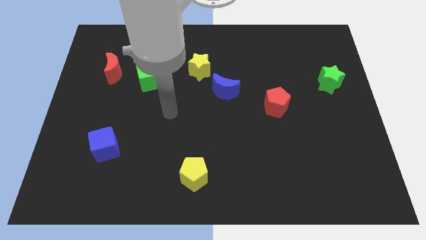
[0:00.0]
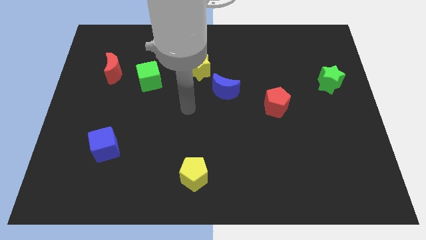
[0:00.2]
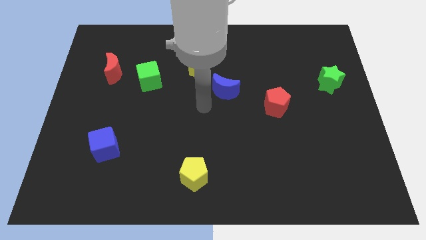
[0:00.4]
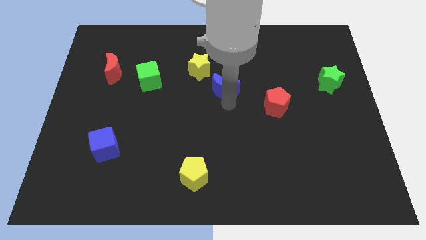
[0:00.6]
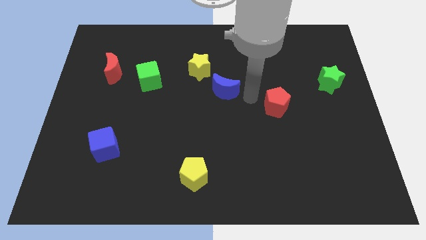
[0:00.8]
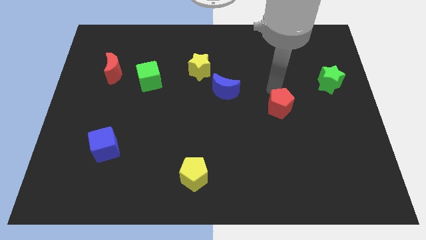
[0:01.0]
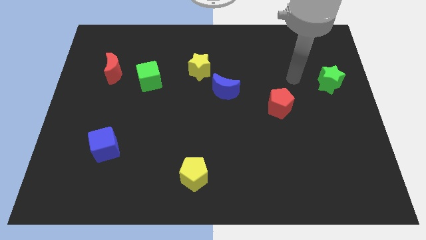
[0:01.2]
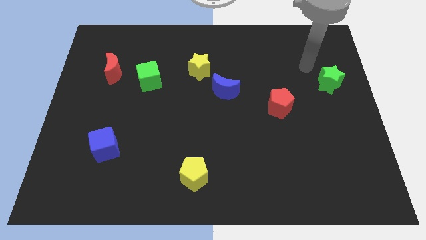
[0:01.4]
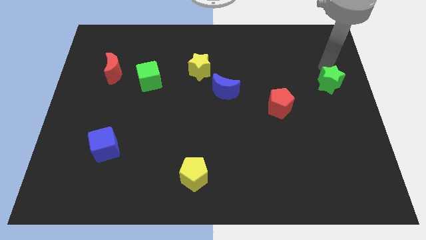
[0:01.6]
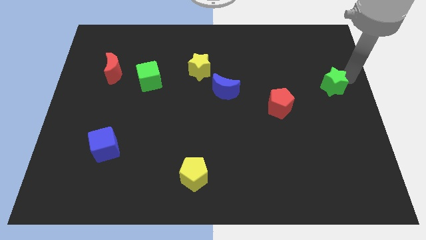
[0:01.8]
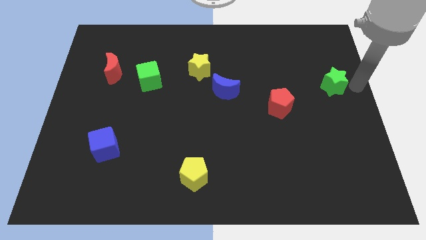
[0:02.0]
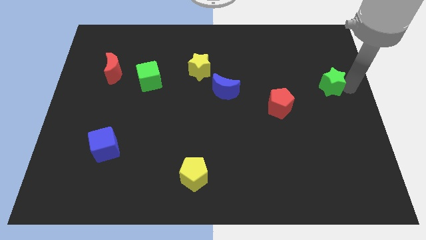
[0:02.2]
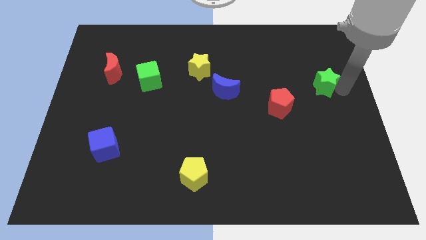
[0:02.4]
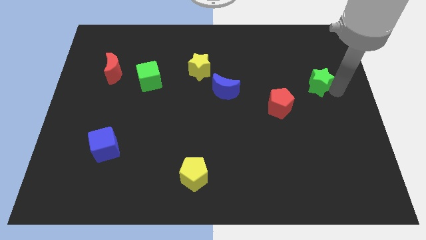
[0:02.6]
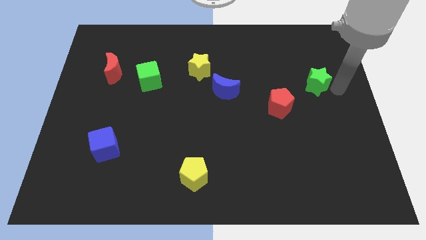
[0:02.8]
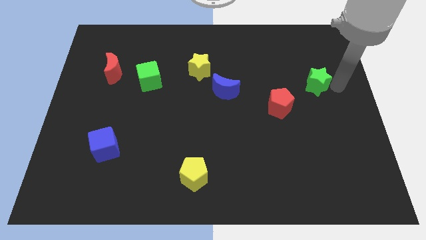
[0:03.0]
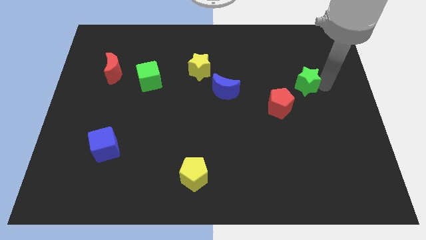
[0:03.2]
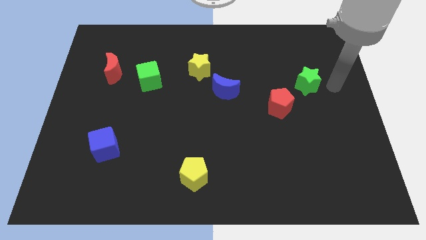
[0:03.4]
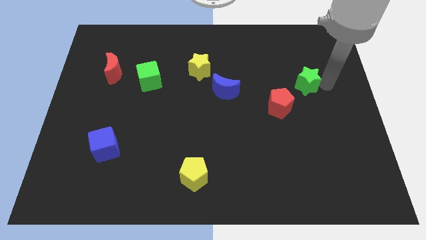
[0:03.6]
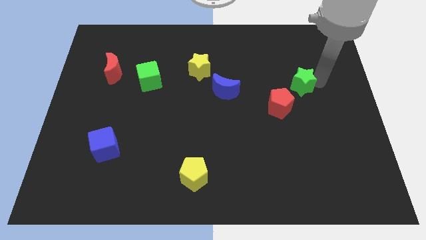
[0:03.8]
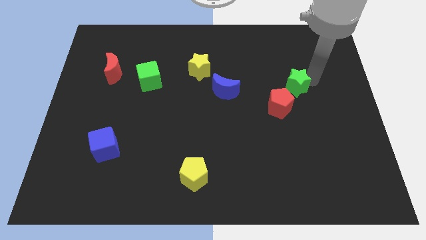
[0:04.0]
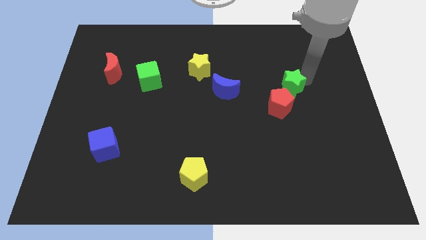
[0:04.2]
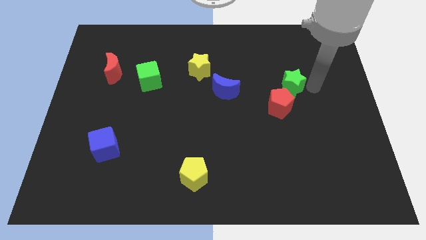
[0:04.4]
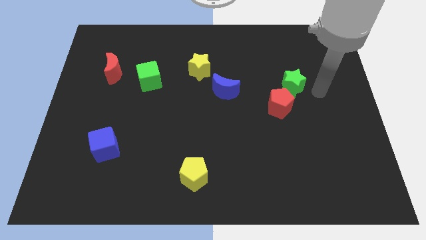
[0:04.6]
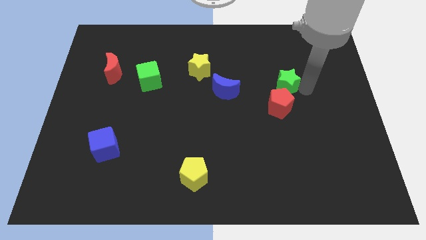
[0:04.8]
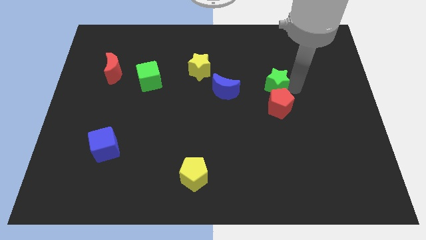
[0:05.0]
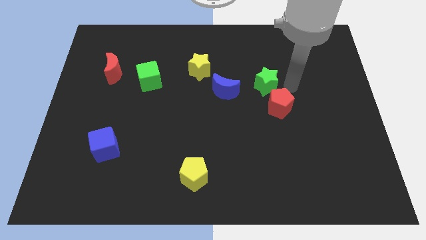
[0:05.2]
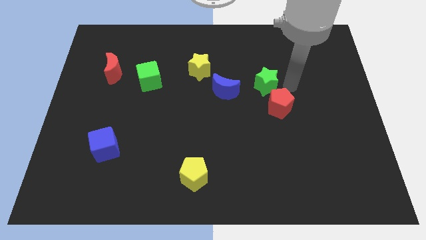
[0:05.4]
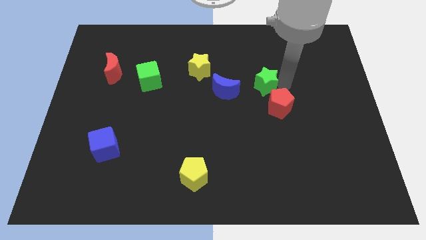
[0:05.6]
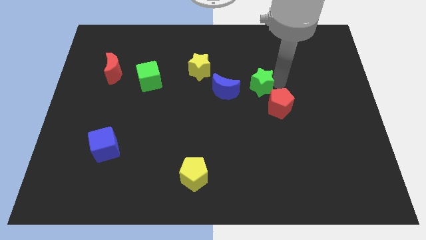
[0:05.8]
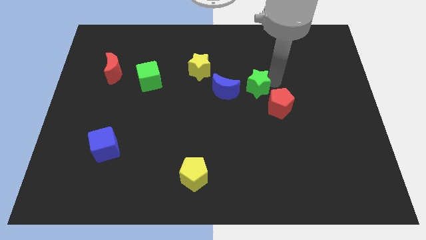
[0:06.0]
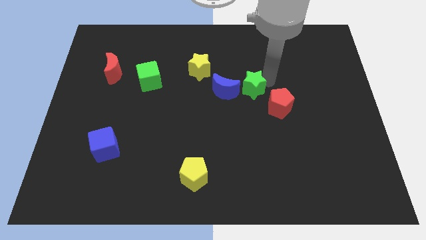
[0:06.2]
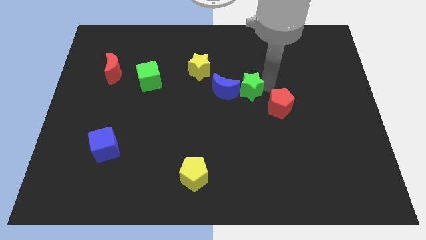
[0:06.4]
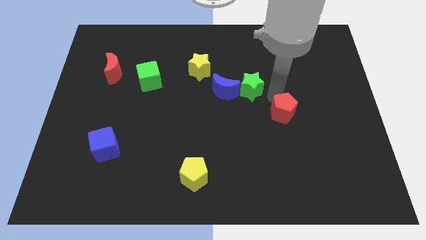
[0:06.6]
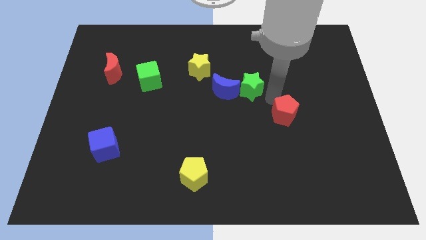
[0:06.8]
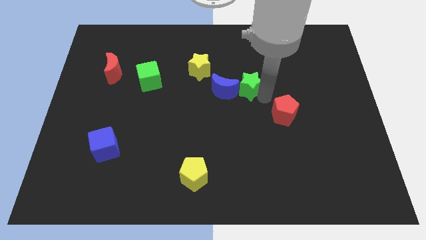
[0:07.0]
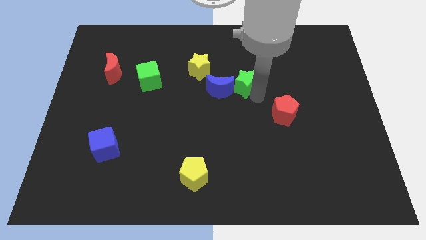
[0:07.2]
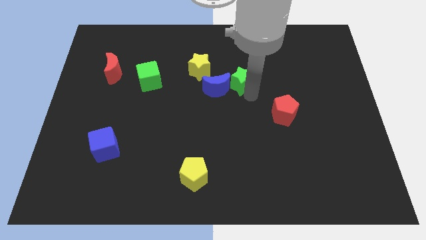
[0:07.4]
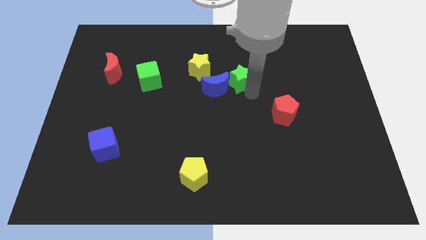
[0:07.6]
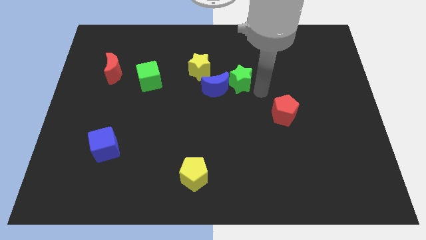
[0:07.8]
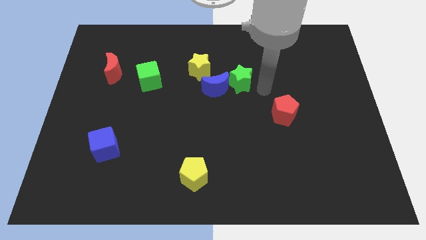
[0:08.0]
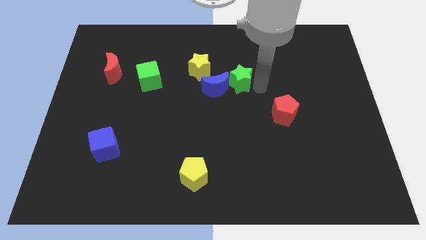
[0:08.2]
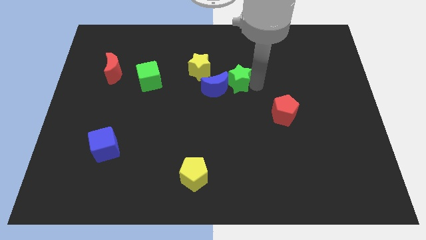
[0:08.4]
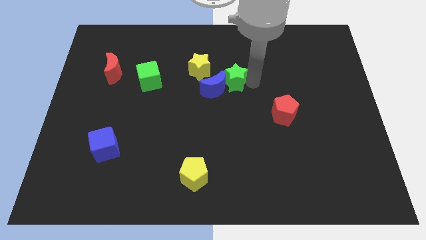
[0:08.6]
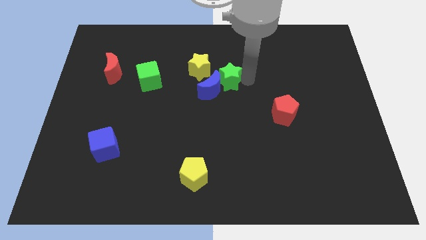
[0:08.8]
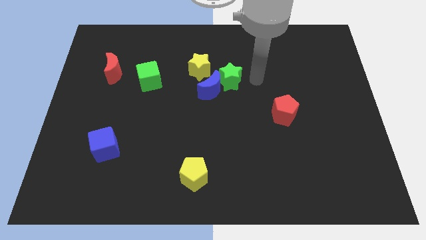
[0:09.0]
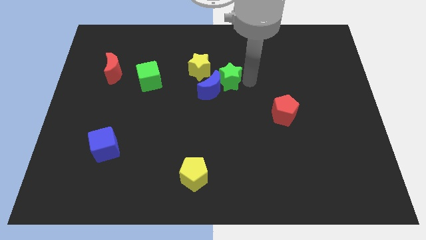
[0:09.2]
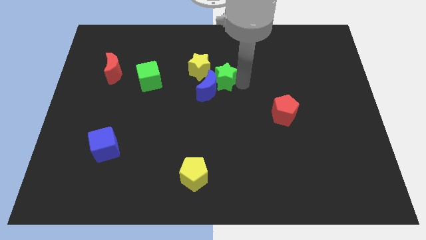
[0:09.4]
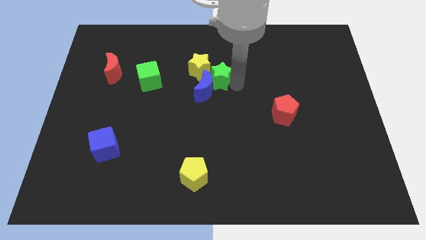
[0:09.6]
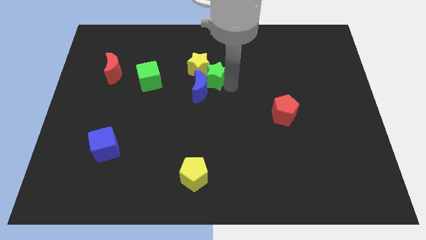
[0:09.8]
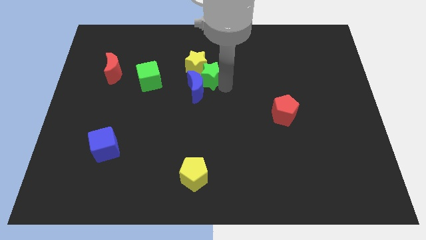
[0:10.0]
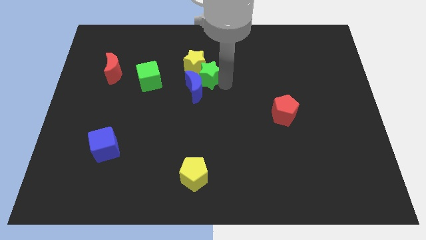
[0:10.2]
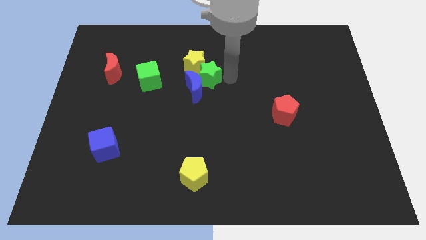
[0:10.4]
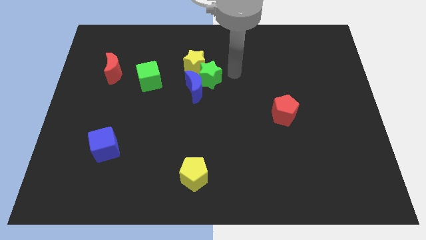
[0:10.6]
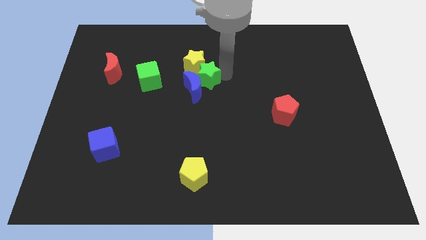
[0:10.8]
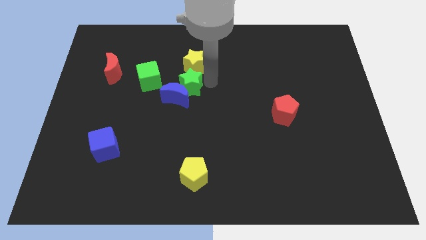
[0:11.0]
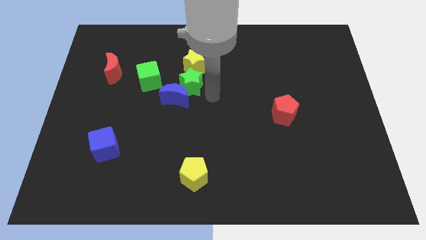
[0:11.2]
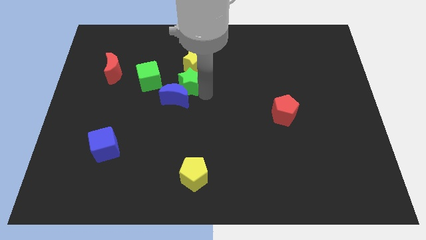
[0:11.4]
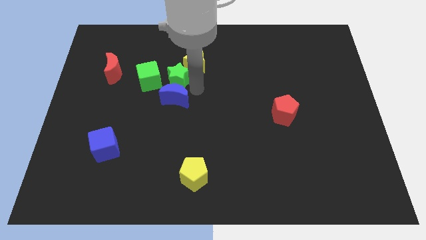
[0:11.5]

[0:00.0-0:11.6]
slide the green star just left of the yellow star

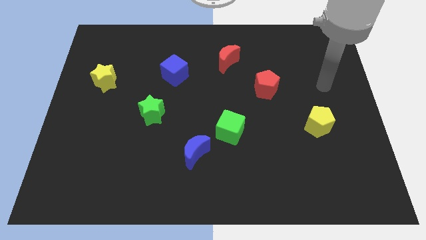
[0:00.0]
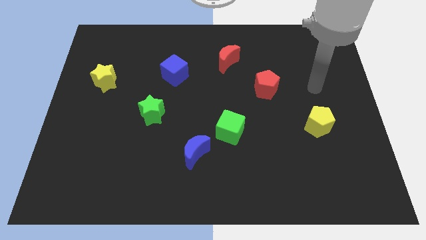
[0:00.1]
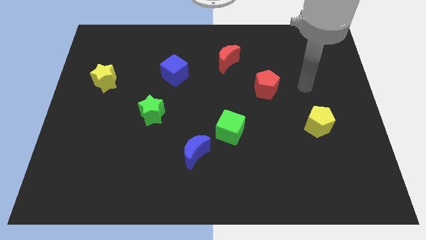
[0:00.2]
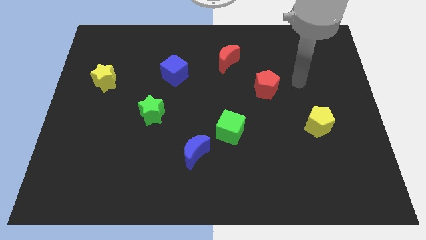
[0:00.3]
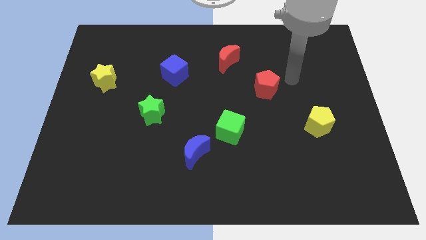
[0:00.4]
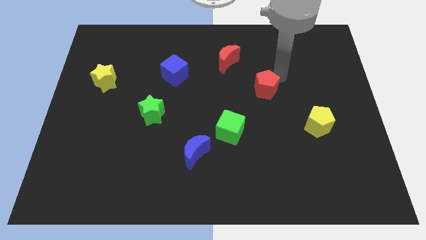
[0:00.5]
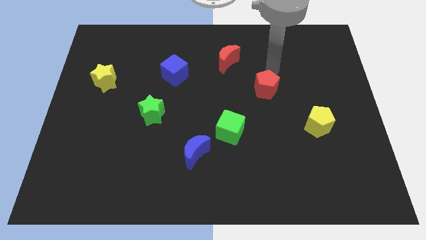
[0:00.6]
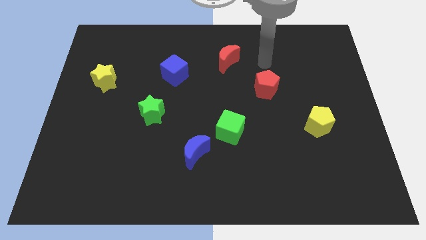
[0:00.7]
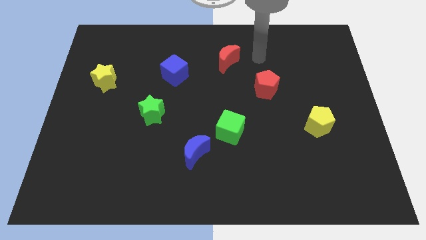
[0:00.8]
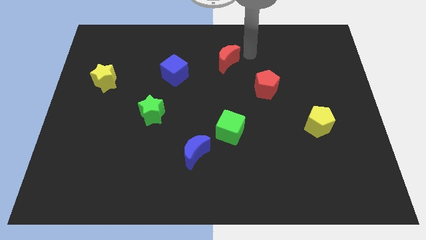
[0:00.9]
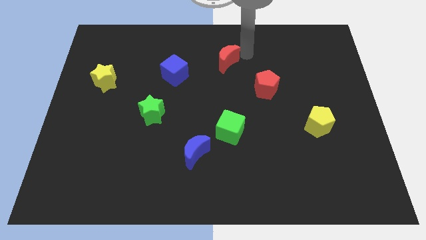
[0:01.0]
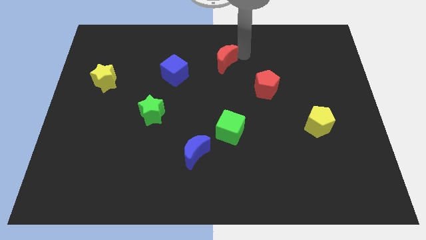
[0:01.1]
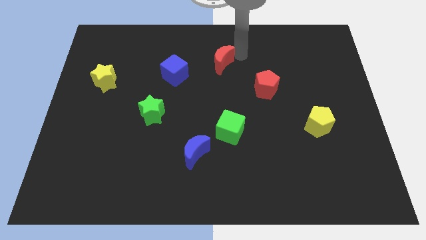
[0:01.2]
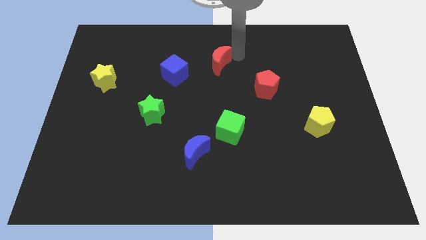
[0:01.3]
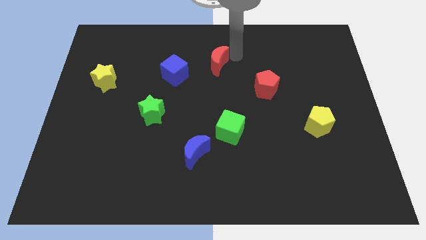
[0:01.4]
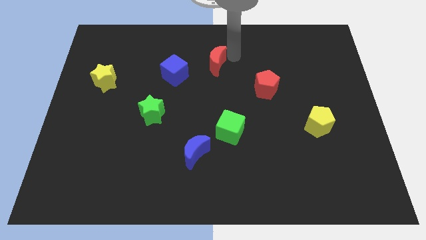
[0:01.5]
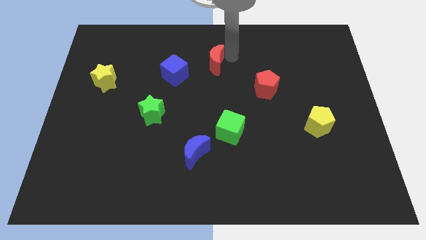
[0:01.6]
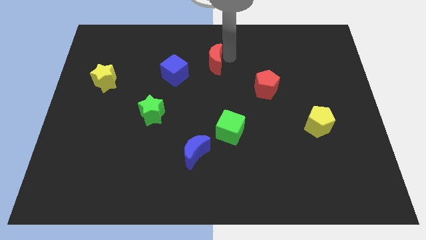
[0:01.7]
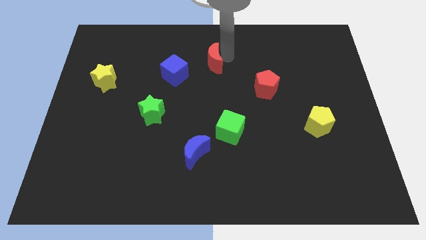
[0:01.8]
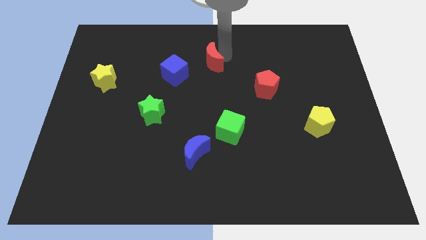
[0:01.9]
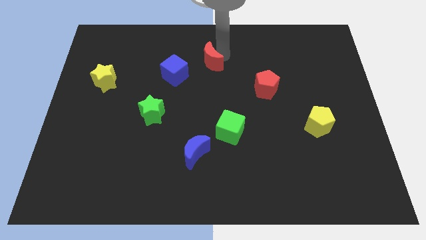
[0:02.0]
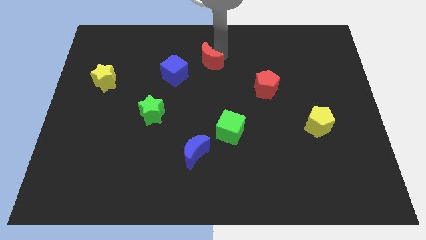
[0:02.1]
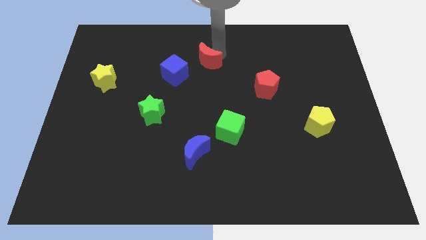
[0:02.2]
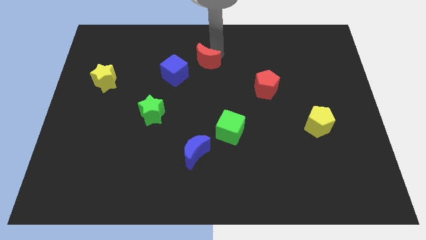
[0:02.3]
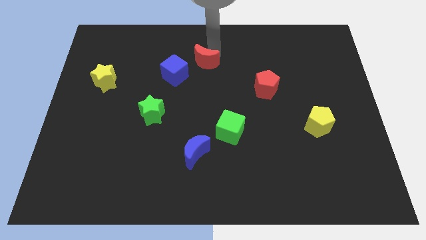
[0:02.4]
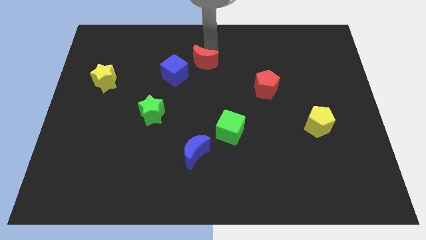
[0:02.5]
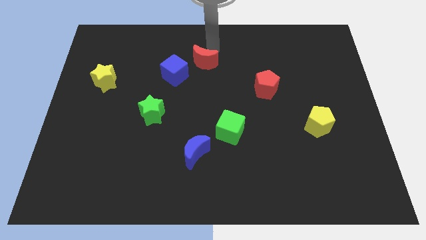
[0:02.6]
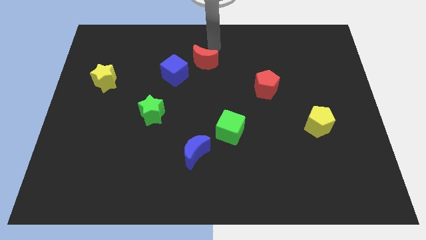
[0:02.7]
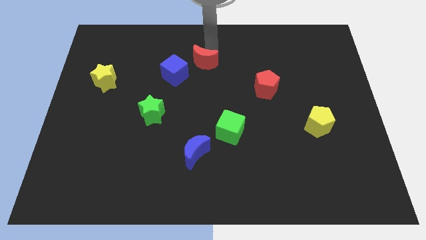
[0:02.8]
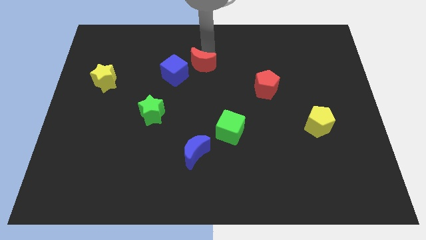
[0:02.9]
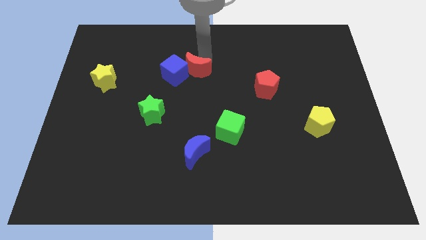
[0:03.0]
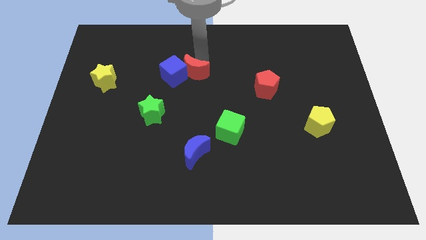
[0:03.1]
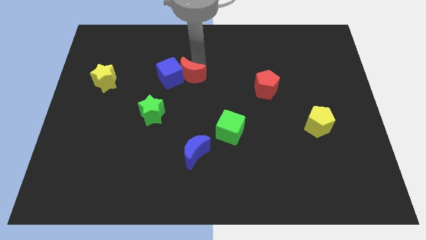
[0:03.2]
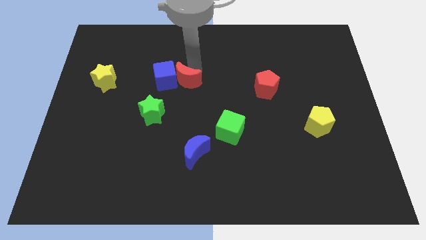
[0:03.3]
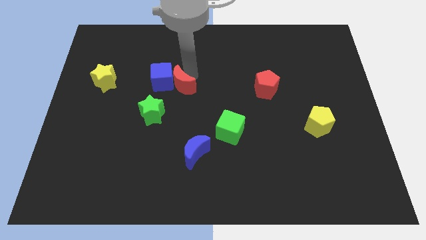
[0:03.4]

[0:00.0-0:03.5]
slide the red moon diagonally up and to the right of the green star
